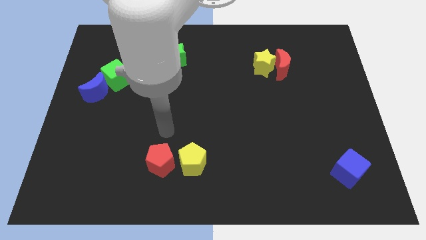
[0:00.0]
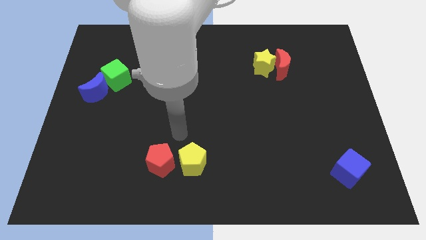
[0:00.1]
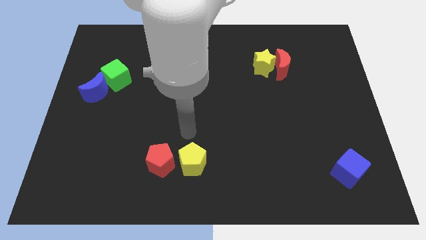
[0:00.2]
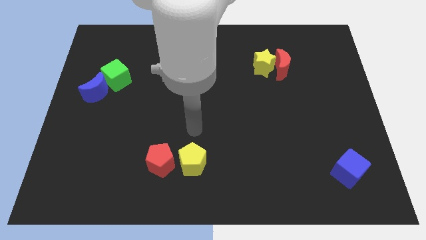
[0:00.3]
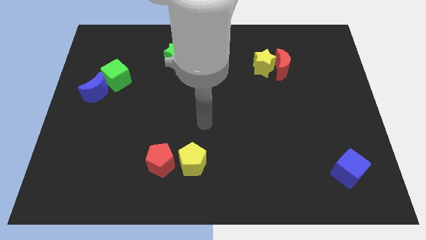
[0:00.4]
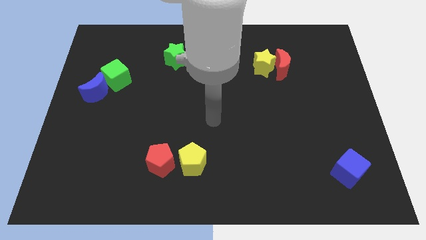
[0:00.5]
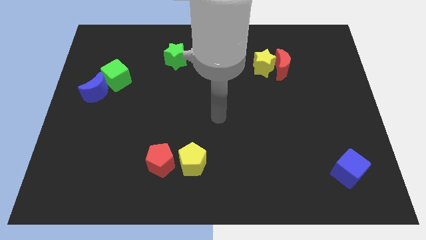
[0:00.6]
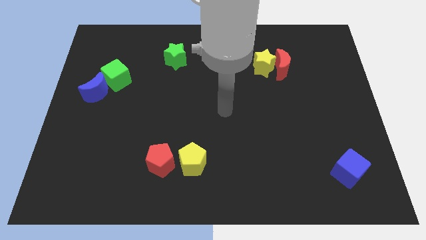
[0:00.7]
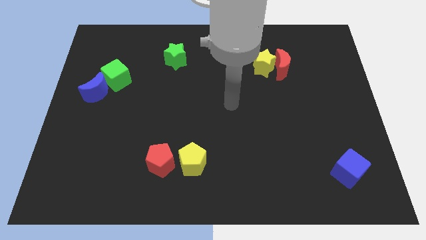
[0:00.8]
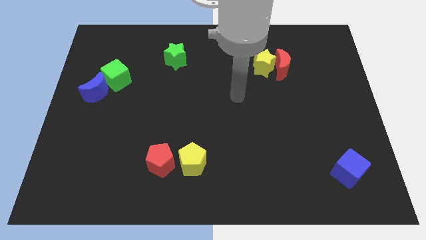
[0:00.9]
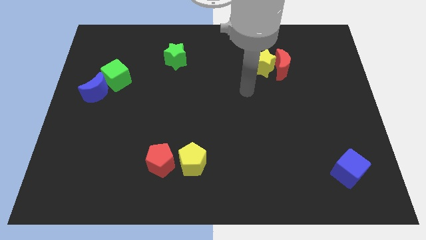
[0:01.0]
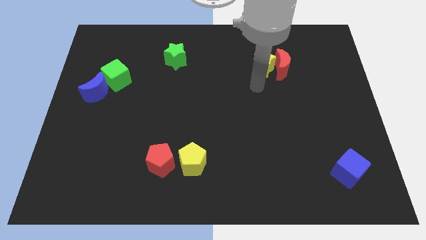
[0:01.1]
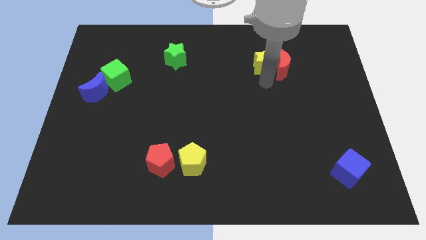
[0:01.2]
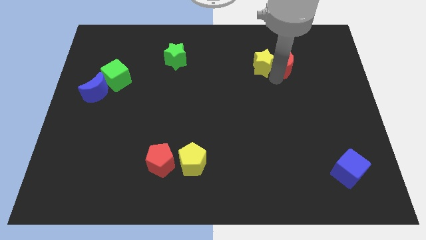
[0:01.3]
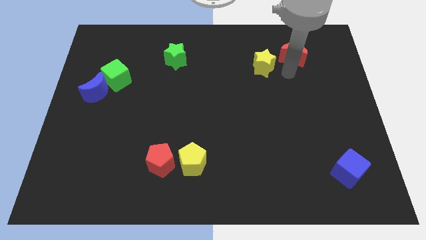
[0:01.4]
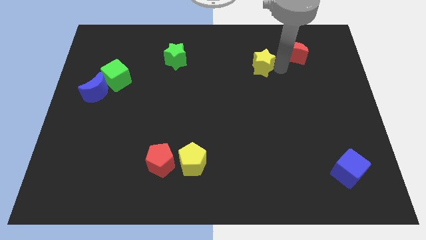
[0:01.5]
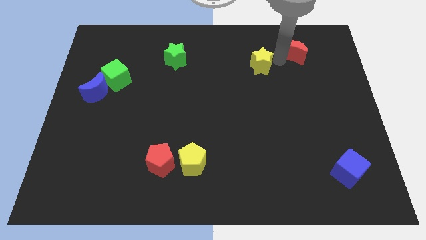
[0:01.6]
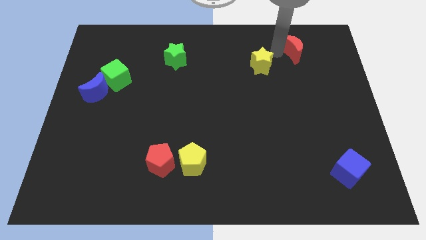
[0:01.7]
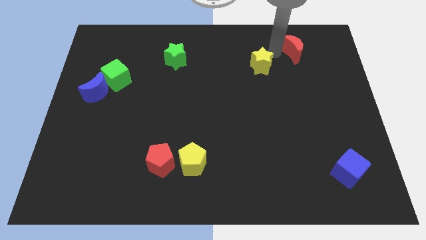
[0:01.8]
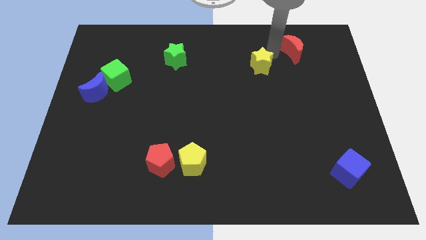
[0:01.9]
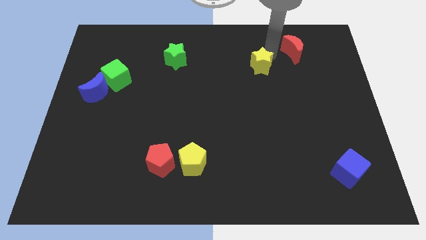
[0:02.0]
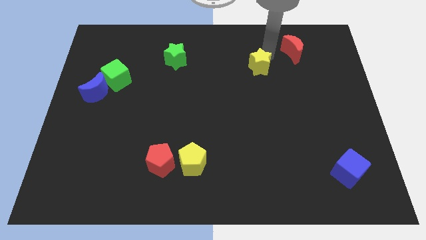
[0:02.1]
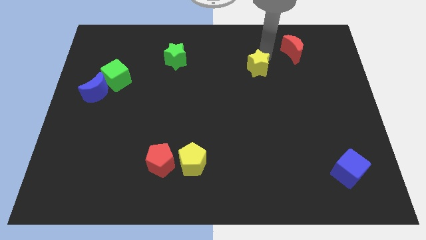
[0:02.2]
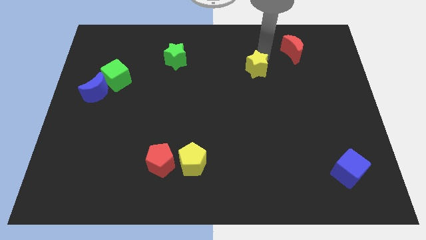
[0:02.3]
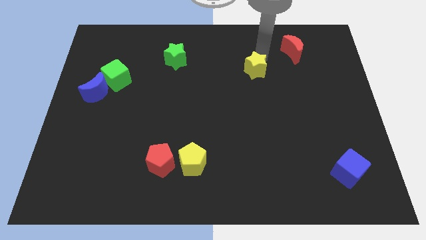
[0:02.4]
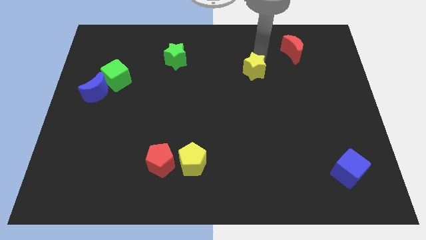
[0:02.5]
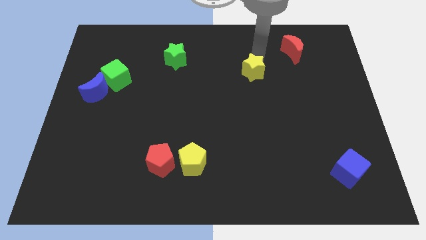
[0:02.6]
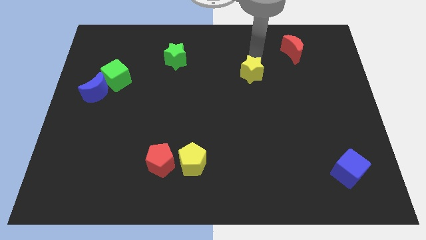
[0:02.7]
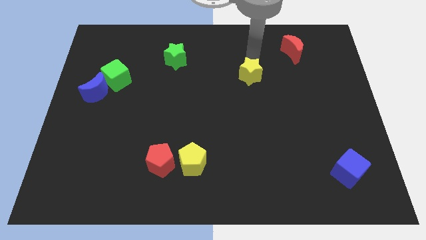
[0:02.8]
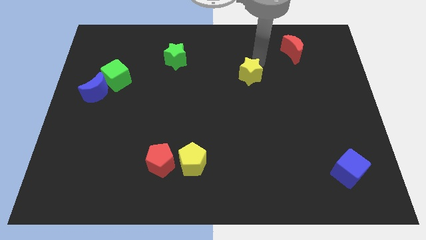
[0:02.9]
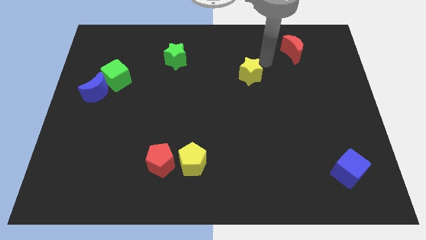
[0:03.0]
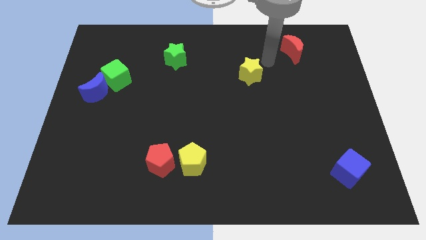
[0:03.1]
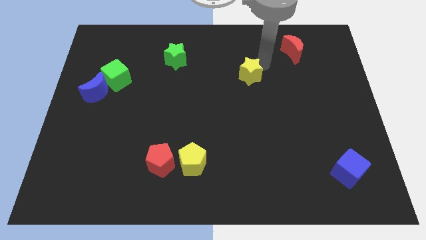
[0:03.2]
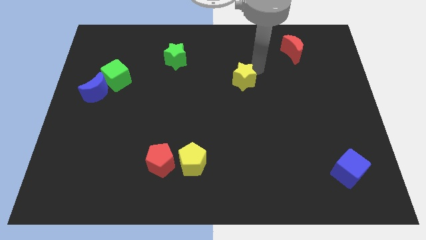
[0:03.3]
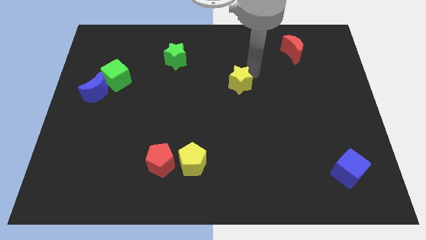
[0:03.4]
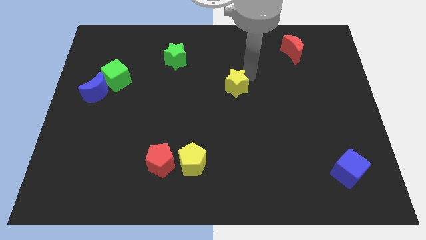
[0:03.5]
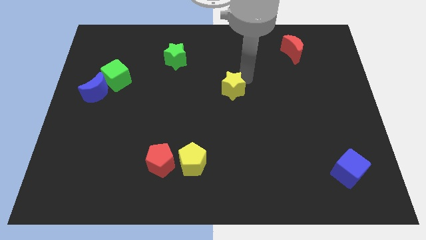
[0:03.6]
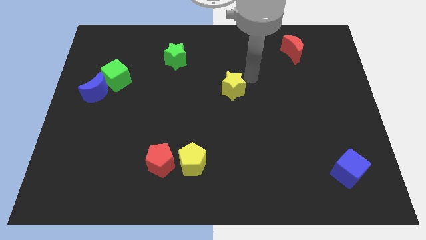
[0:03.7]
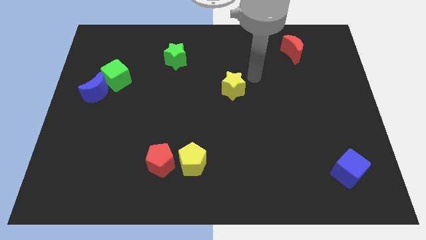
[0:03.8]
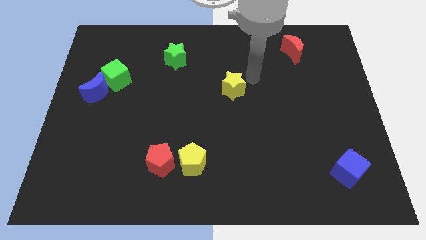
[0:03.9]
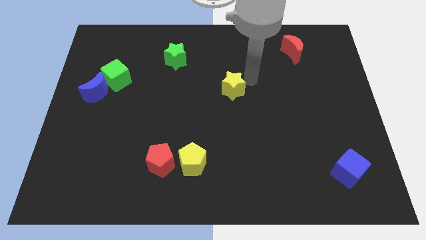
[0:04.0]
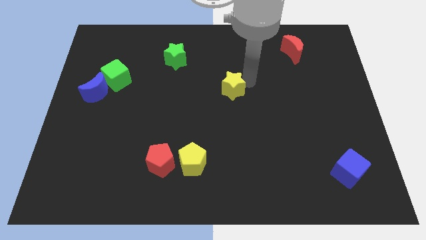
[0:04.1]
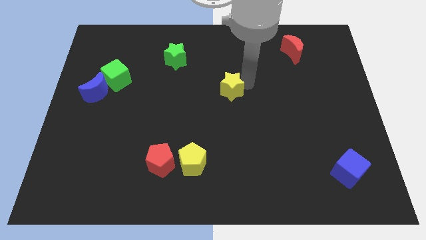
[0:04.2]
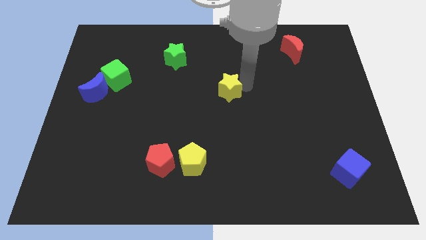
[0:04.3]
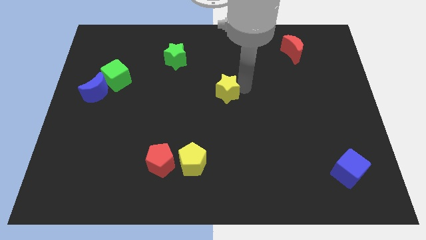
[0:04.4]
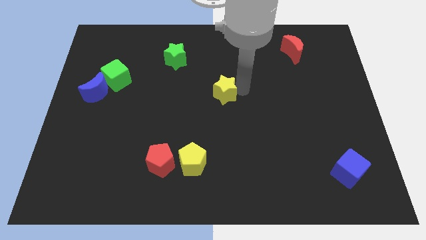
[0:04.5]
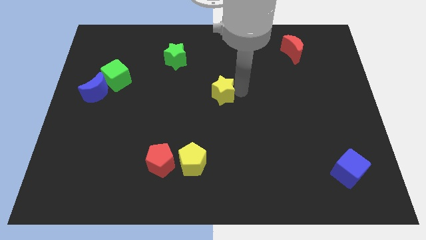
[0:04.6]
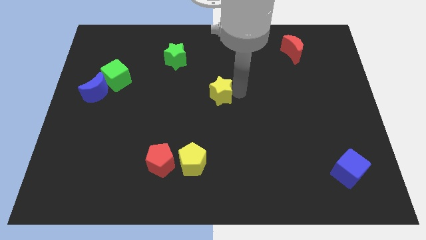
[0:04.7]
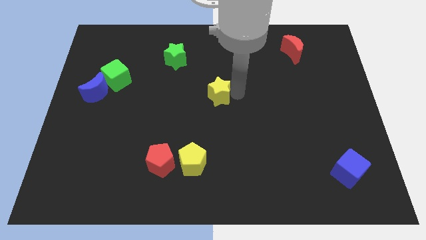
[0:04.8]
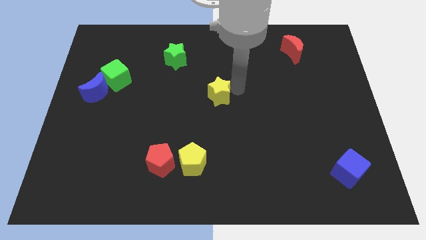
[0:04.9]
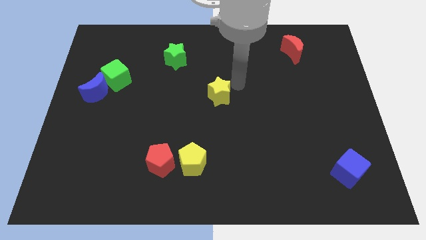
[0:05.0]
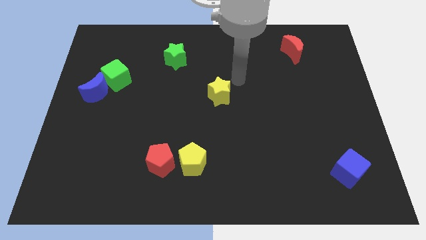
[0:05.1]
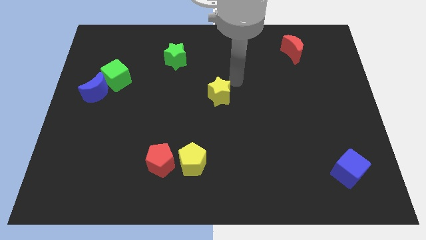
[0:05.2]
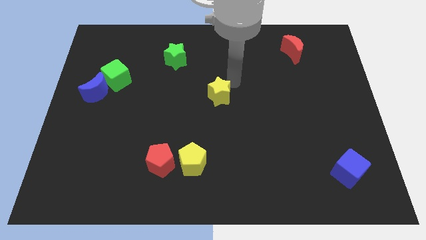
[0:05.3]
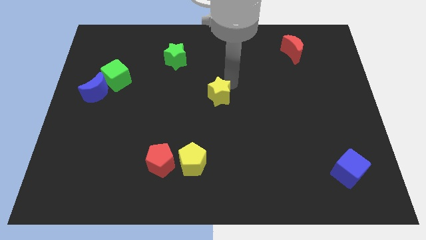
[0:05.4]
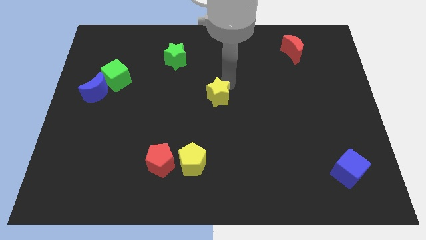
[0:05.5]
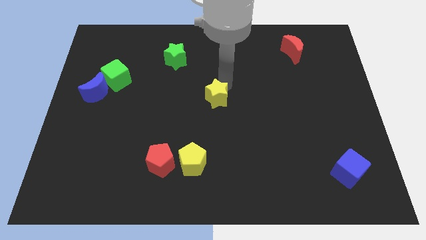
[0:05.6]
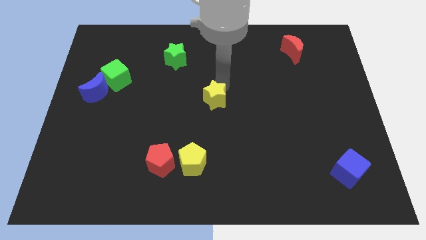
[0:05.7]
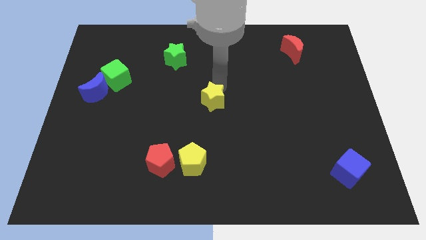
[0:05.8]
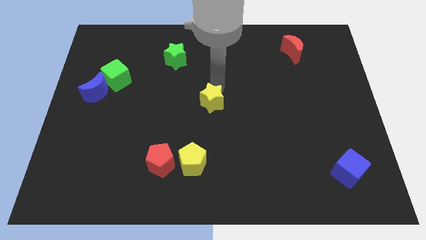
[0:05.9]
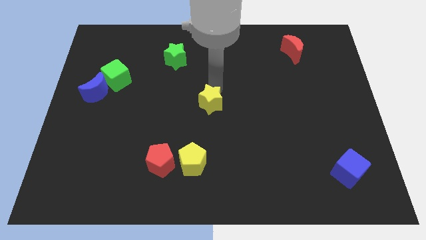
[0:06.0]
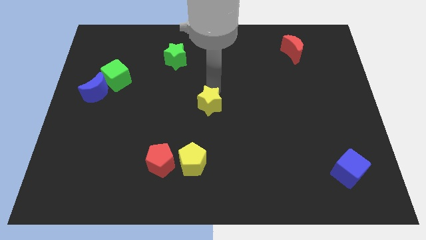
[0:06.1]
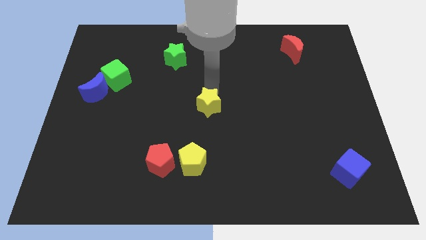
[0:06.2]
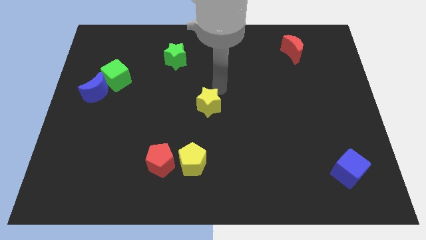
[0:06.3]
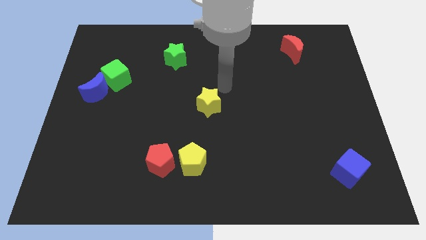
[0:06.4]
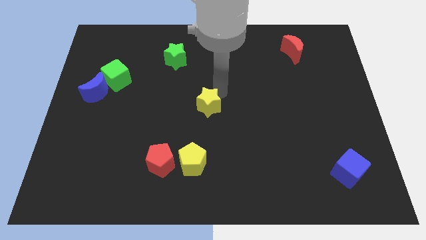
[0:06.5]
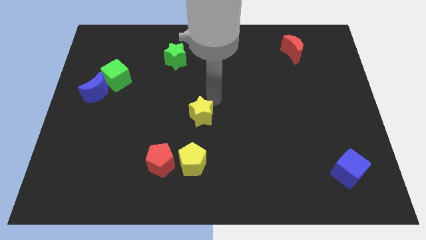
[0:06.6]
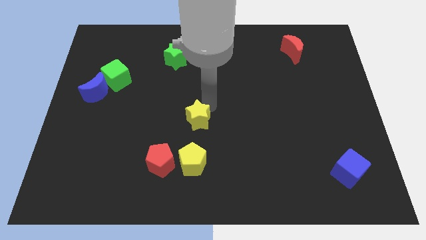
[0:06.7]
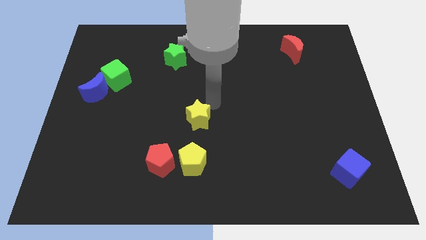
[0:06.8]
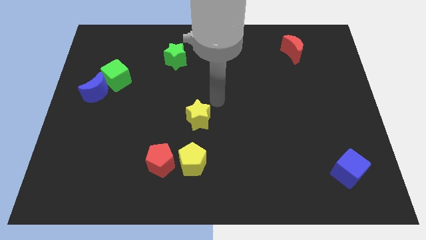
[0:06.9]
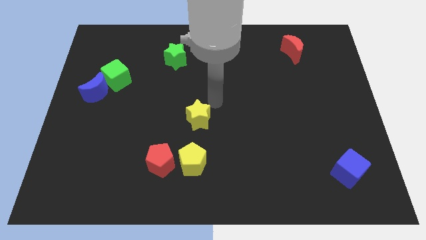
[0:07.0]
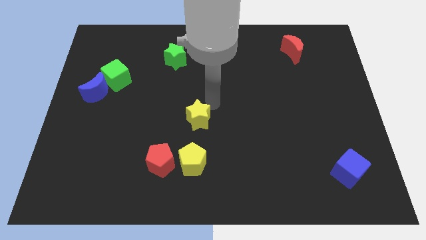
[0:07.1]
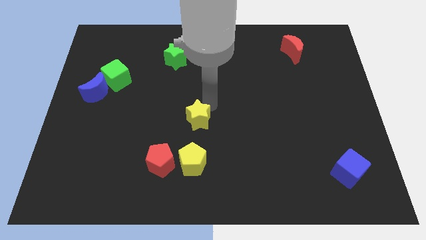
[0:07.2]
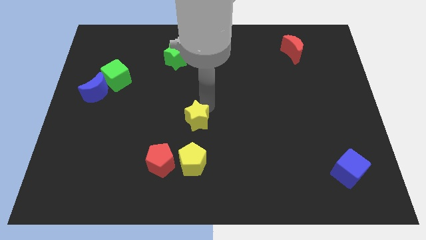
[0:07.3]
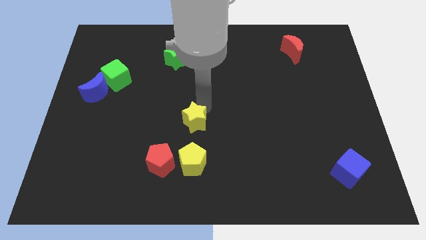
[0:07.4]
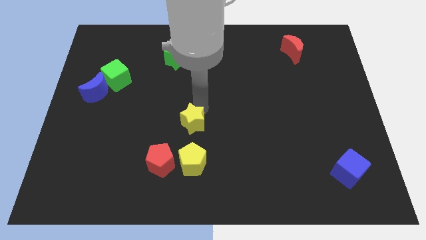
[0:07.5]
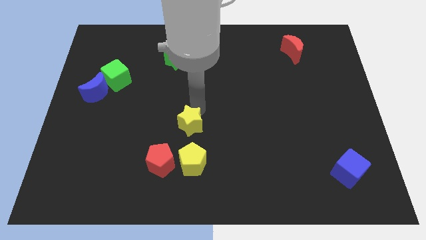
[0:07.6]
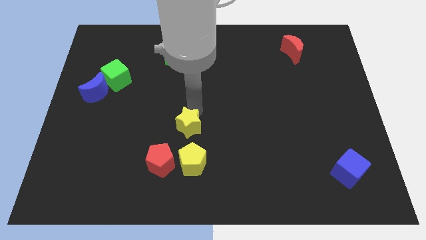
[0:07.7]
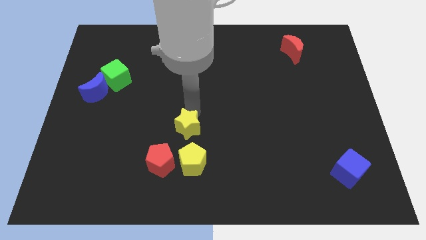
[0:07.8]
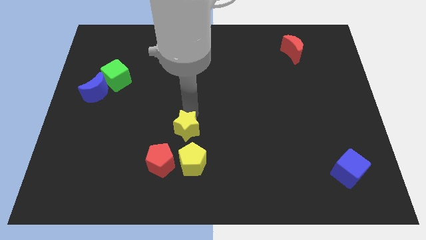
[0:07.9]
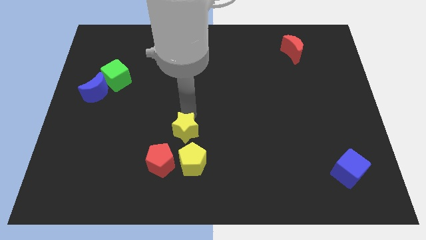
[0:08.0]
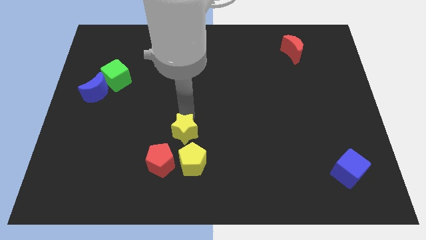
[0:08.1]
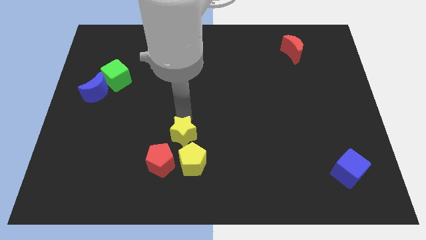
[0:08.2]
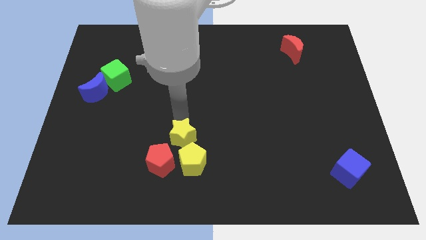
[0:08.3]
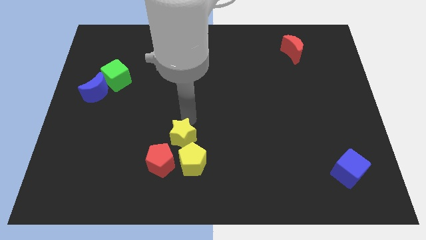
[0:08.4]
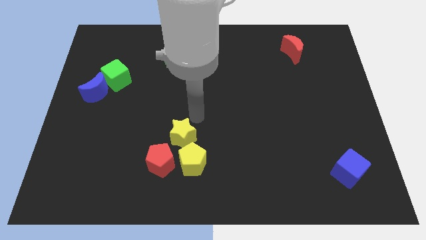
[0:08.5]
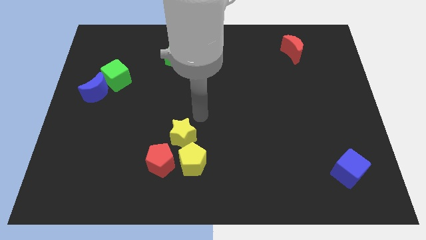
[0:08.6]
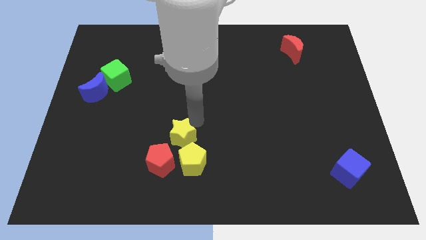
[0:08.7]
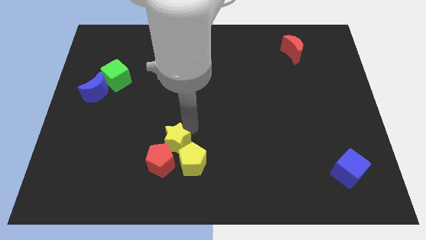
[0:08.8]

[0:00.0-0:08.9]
slide the yellow star to the red pentagon
